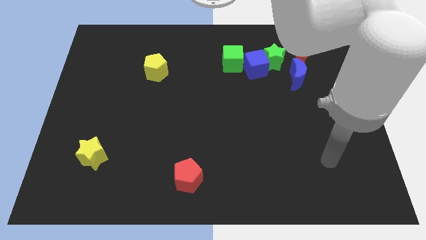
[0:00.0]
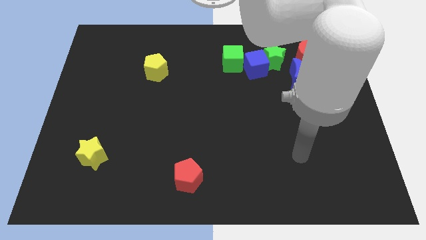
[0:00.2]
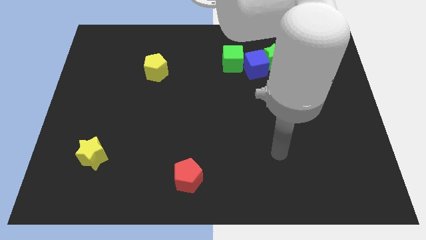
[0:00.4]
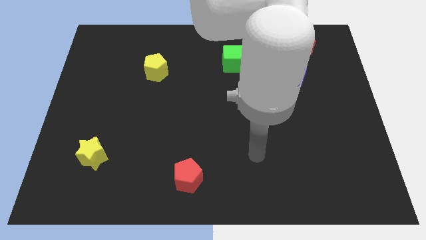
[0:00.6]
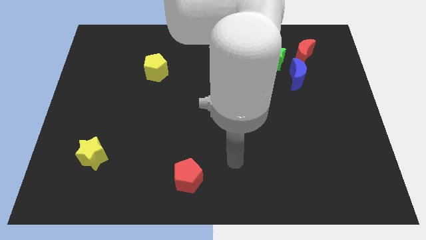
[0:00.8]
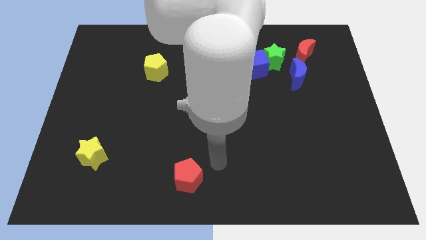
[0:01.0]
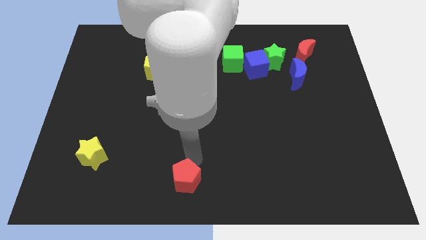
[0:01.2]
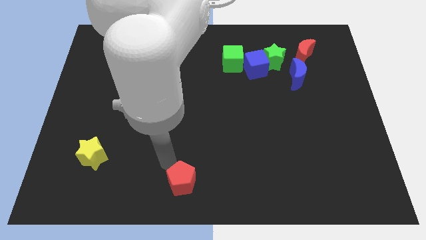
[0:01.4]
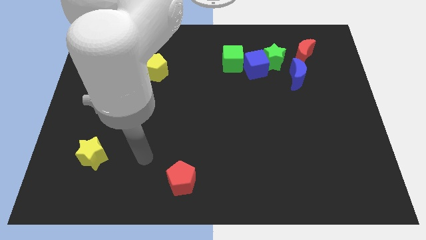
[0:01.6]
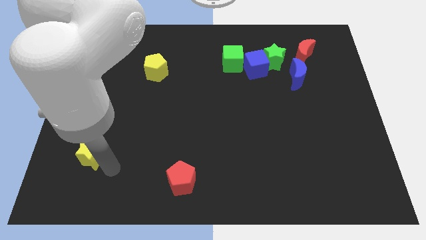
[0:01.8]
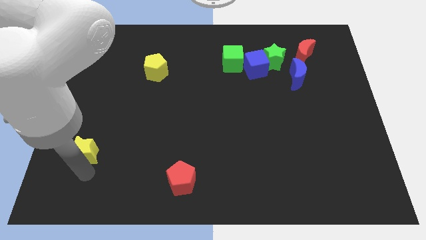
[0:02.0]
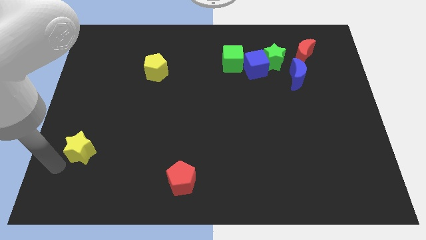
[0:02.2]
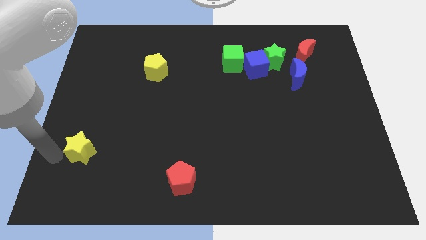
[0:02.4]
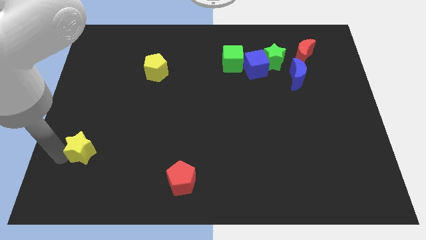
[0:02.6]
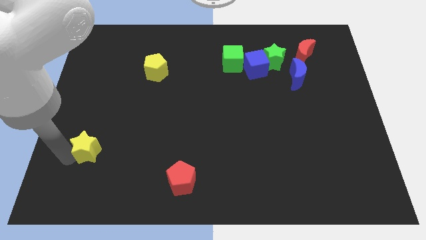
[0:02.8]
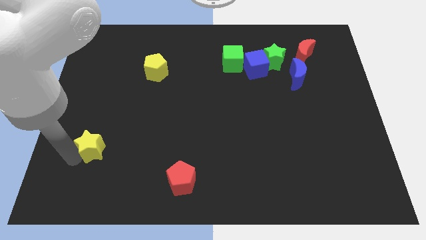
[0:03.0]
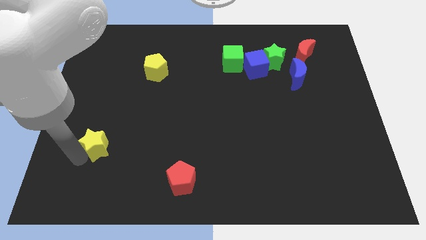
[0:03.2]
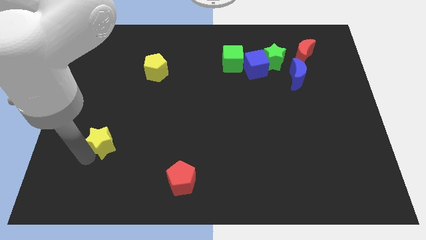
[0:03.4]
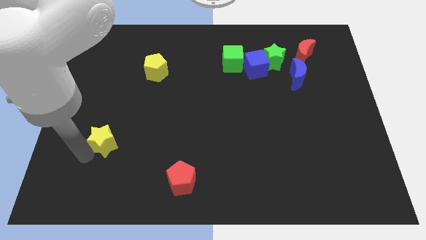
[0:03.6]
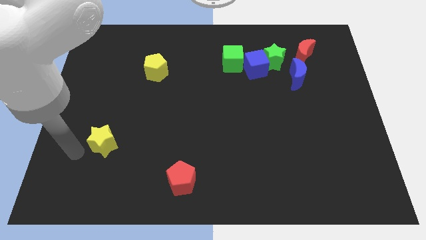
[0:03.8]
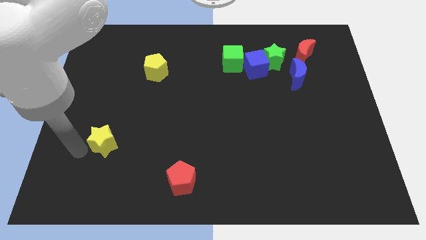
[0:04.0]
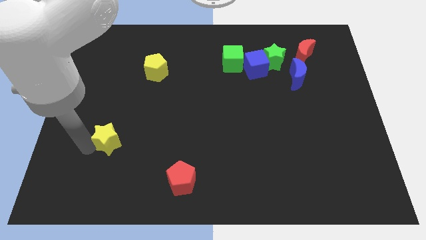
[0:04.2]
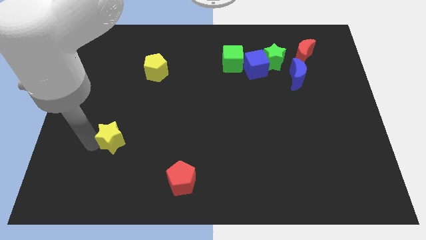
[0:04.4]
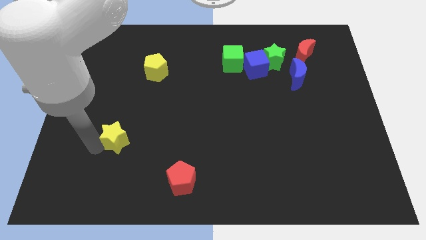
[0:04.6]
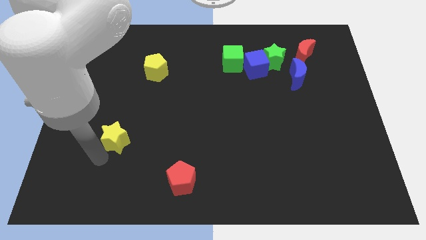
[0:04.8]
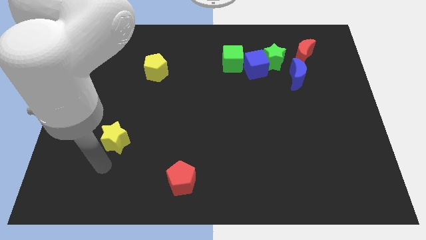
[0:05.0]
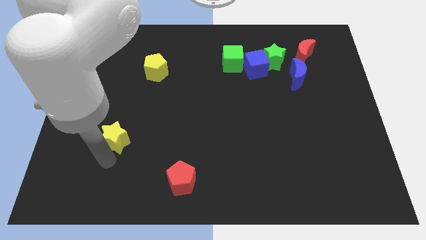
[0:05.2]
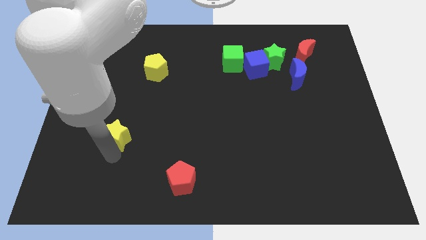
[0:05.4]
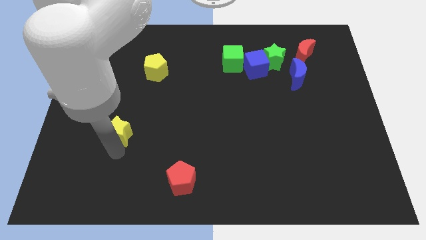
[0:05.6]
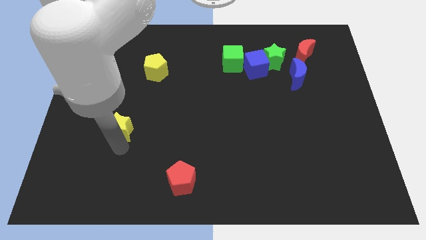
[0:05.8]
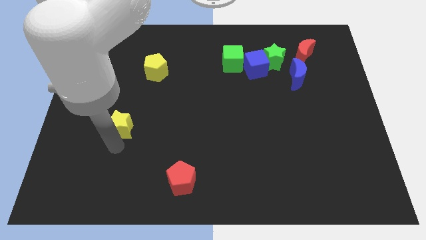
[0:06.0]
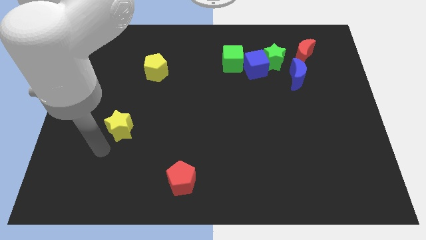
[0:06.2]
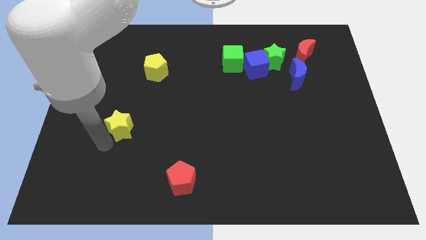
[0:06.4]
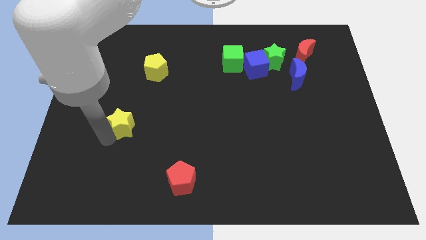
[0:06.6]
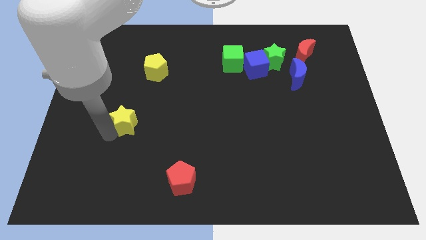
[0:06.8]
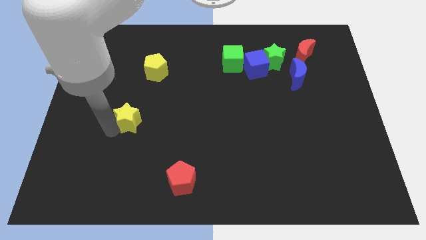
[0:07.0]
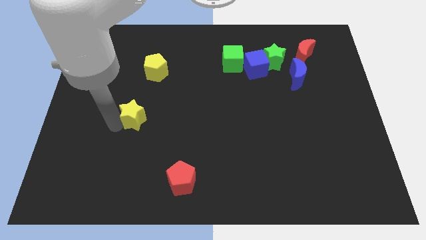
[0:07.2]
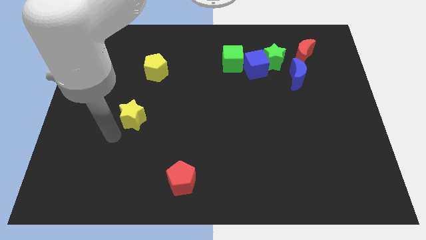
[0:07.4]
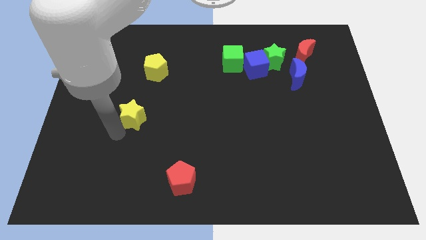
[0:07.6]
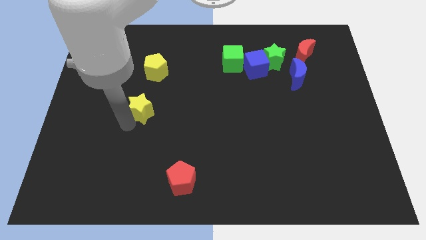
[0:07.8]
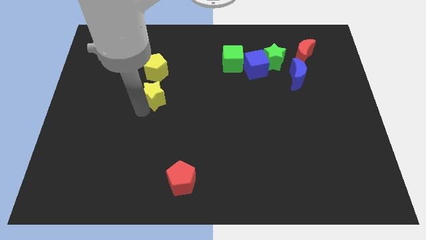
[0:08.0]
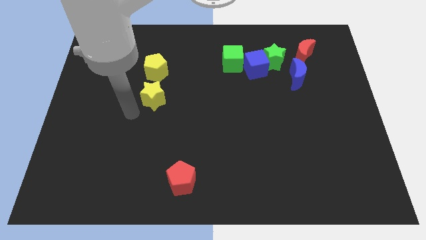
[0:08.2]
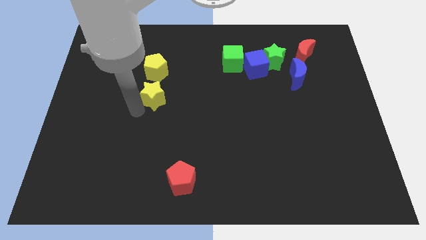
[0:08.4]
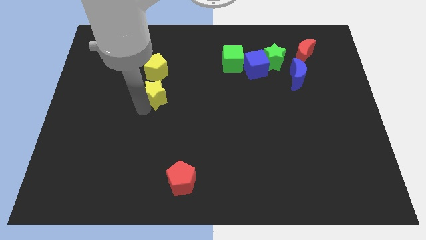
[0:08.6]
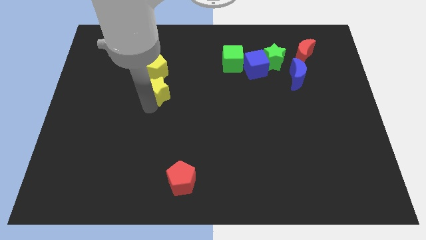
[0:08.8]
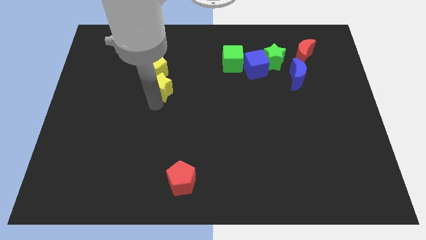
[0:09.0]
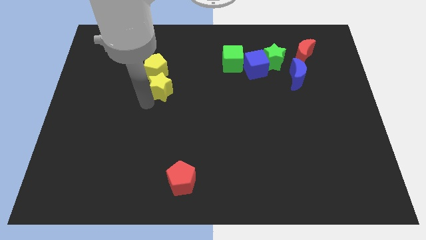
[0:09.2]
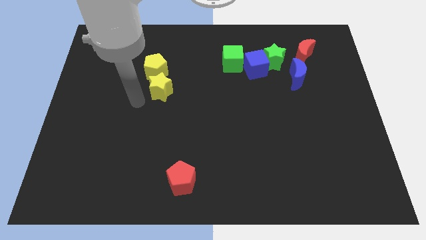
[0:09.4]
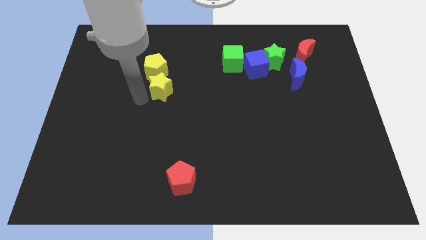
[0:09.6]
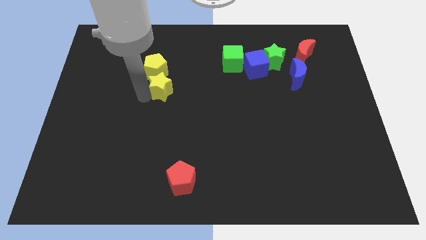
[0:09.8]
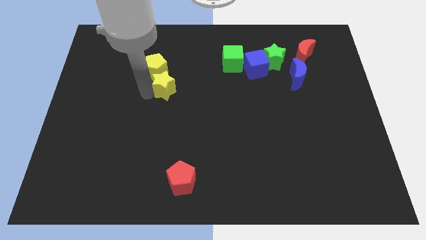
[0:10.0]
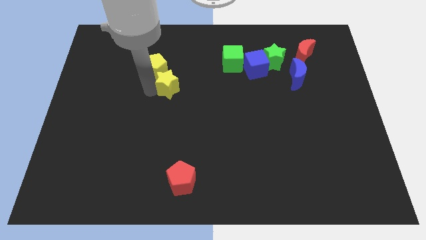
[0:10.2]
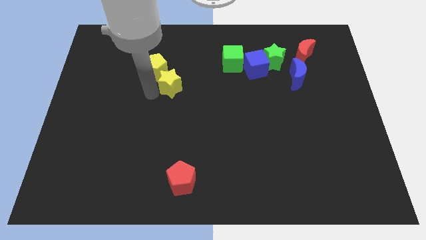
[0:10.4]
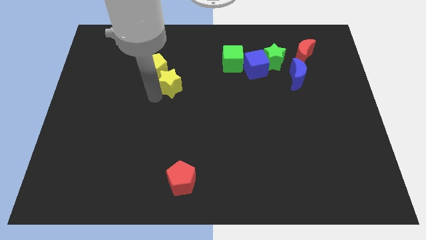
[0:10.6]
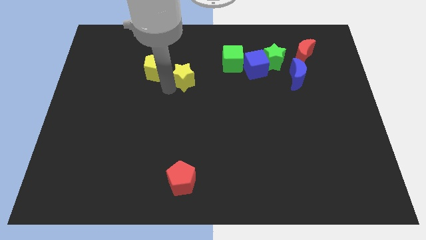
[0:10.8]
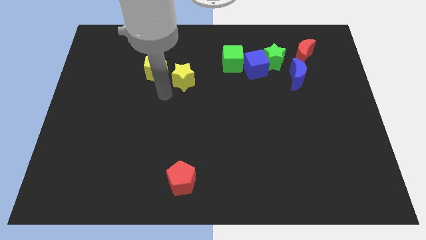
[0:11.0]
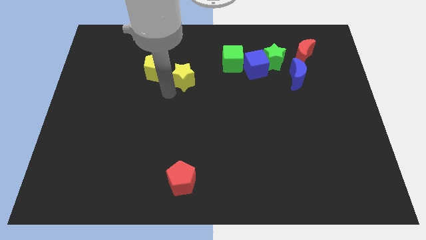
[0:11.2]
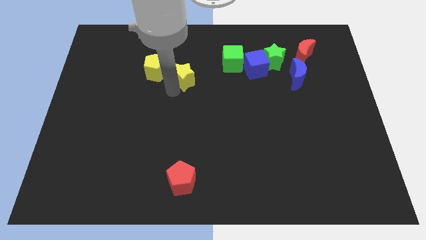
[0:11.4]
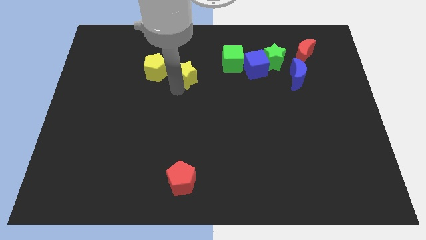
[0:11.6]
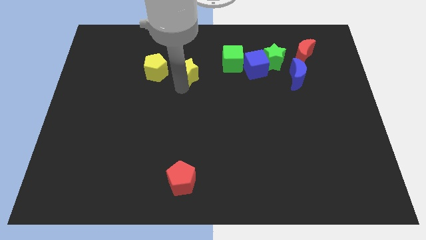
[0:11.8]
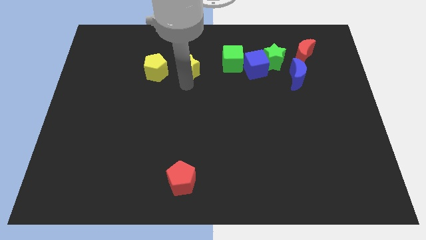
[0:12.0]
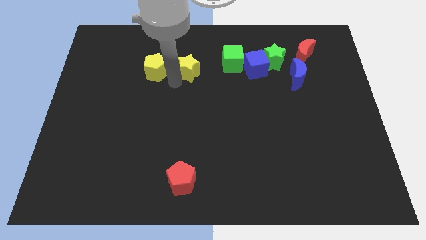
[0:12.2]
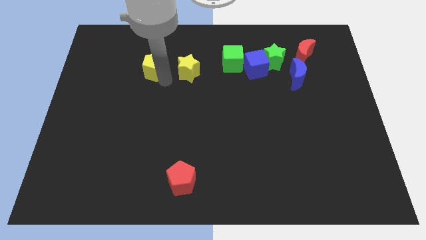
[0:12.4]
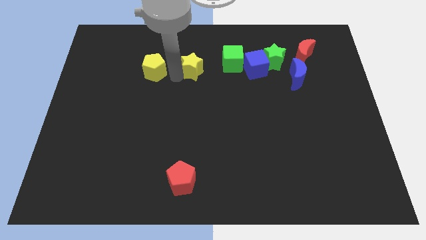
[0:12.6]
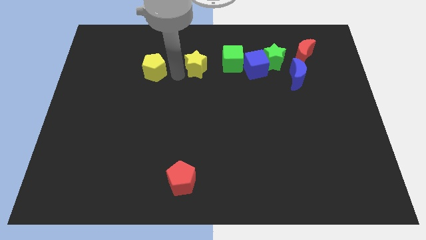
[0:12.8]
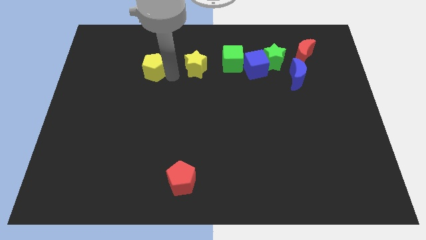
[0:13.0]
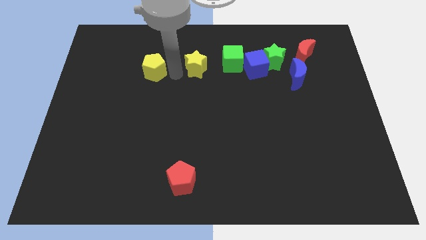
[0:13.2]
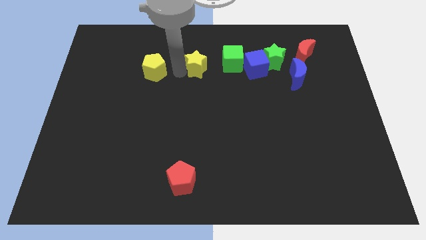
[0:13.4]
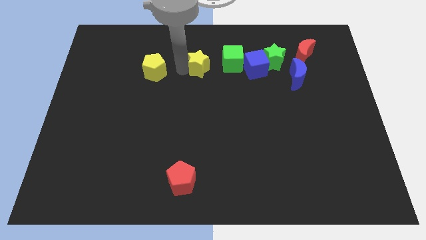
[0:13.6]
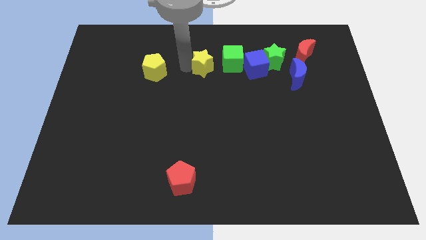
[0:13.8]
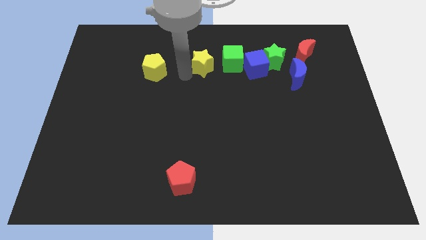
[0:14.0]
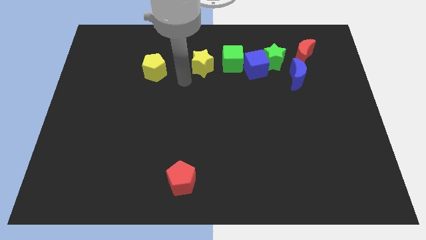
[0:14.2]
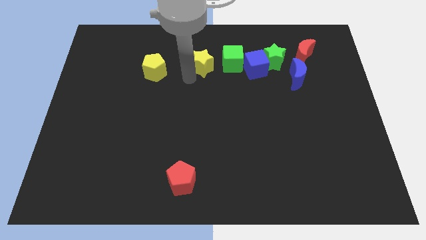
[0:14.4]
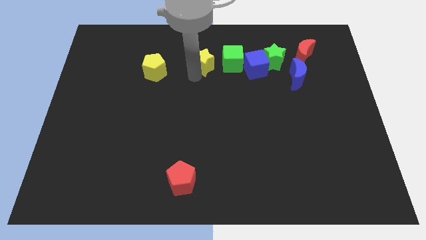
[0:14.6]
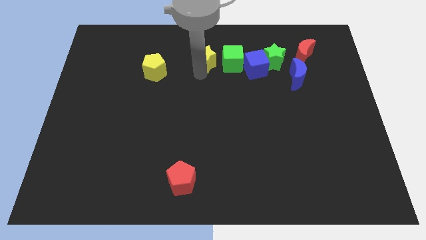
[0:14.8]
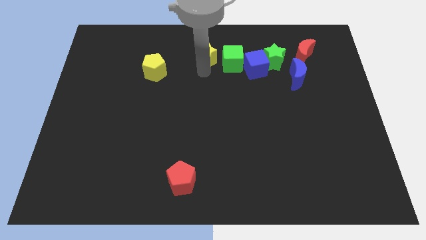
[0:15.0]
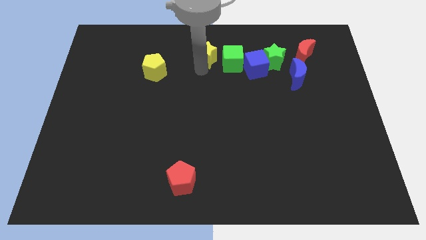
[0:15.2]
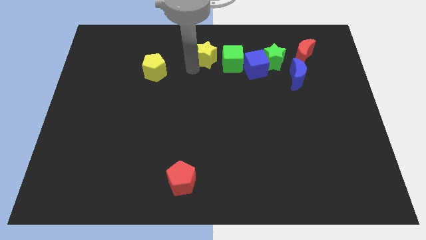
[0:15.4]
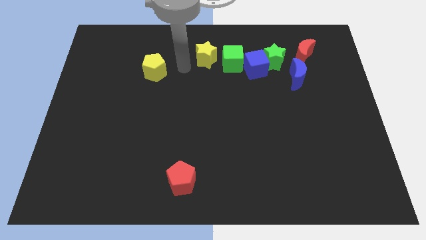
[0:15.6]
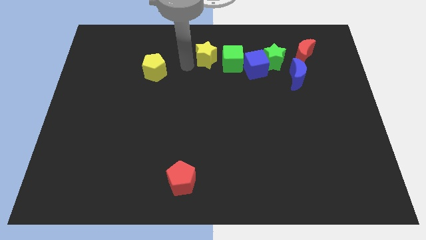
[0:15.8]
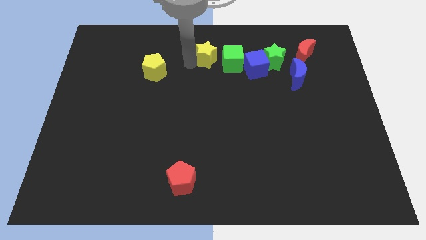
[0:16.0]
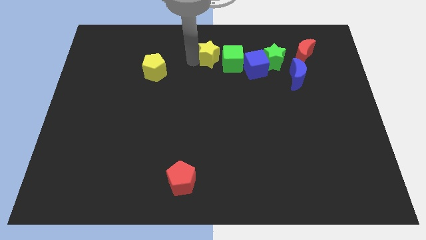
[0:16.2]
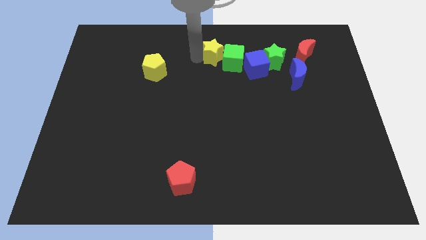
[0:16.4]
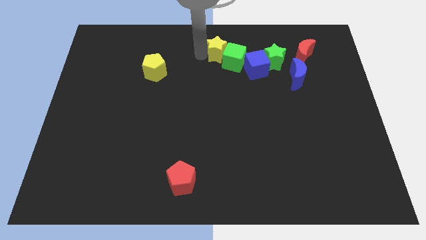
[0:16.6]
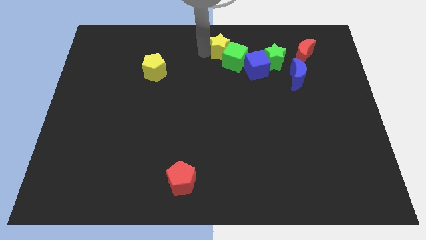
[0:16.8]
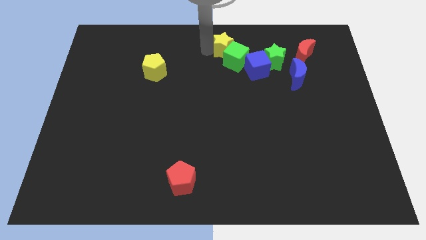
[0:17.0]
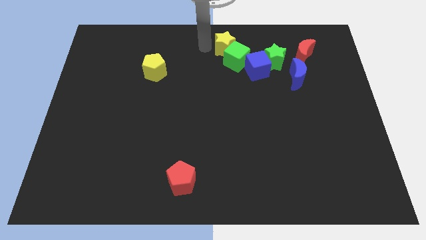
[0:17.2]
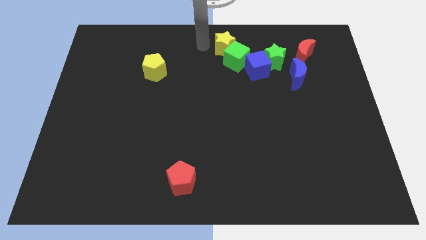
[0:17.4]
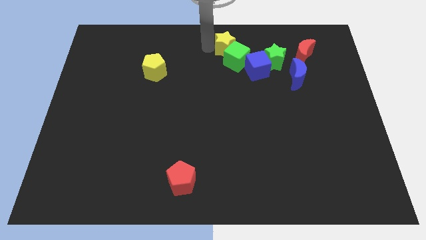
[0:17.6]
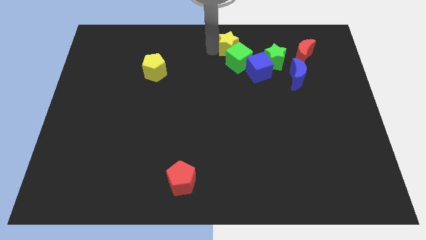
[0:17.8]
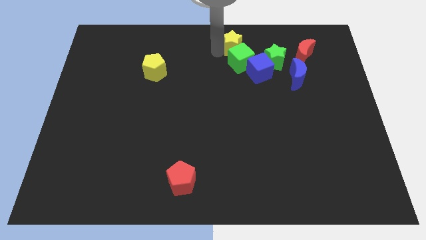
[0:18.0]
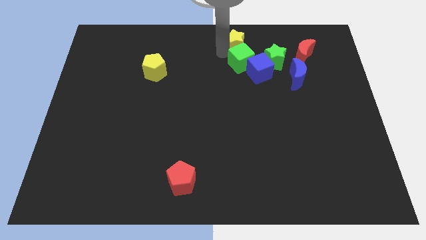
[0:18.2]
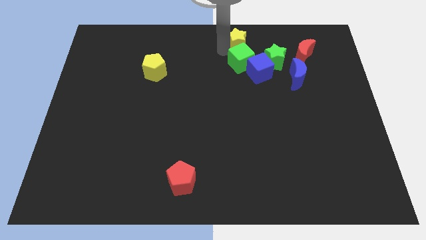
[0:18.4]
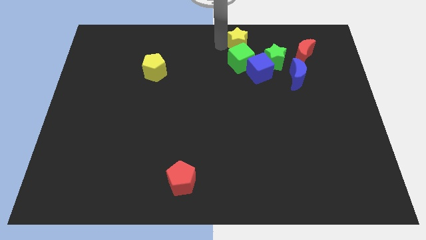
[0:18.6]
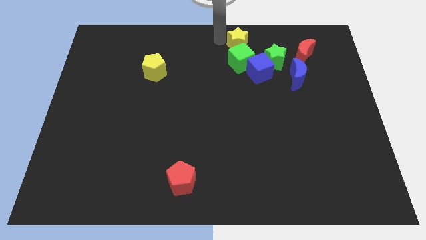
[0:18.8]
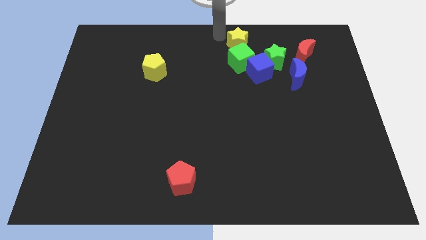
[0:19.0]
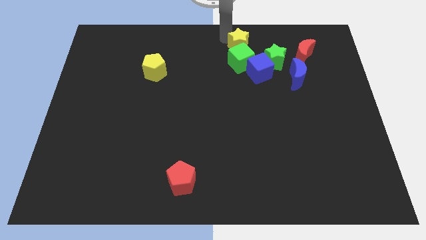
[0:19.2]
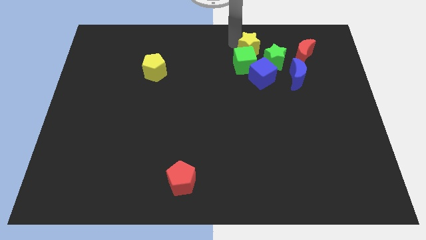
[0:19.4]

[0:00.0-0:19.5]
move the yellow star just left of the red moon
